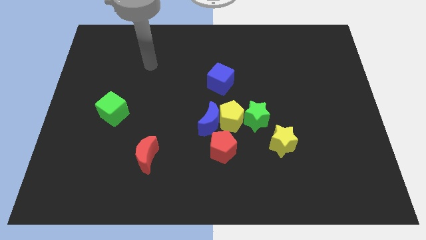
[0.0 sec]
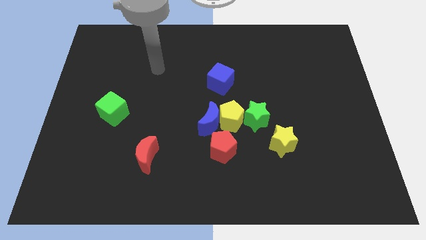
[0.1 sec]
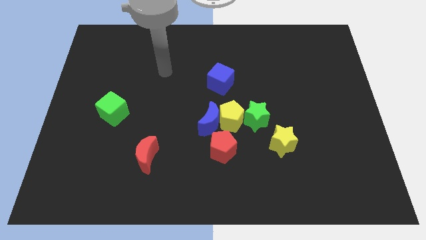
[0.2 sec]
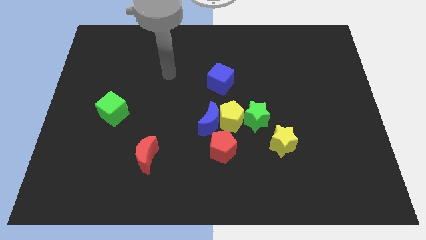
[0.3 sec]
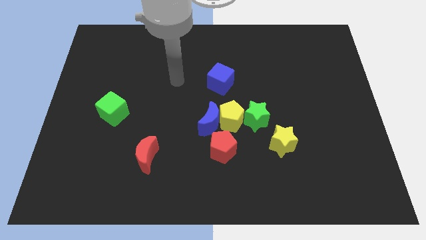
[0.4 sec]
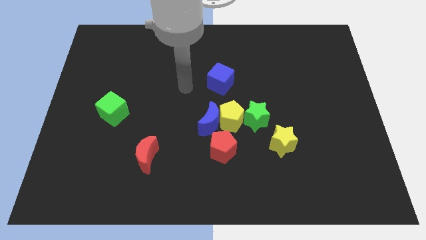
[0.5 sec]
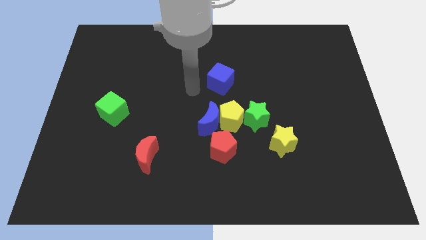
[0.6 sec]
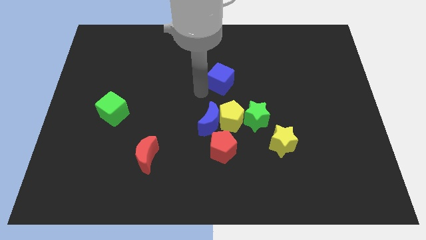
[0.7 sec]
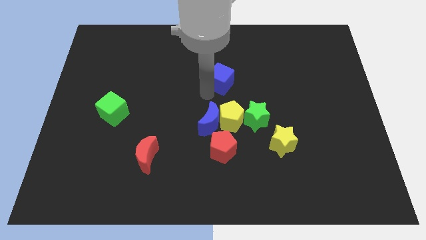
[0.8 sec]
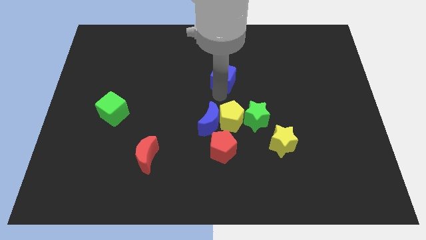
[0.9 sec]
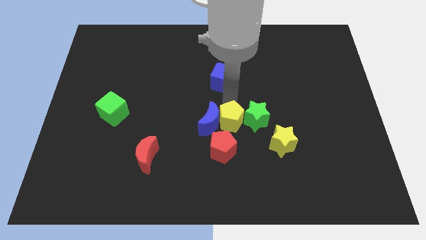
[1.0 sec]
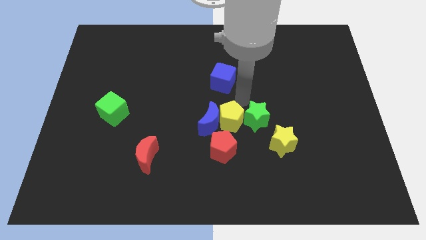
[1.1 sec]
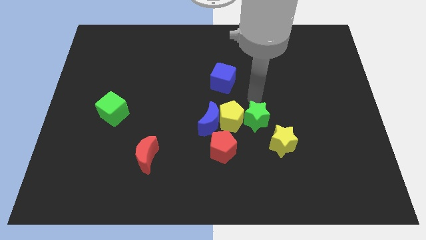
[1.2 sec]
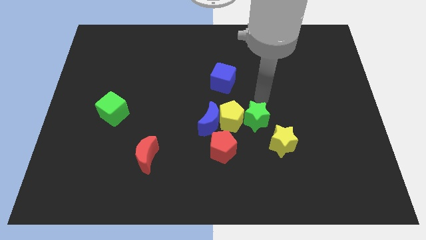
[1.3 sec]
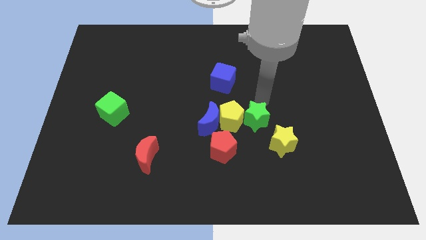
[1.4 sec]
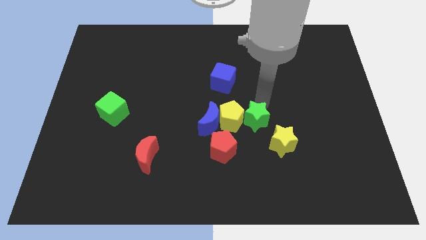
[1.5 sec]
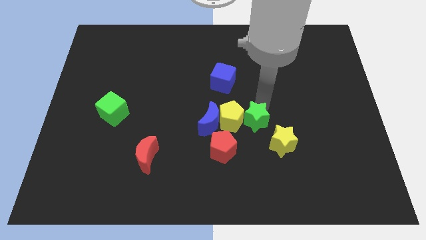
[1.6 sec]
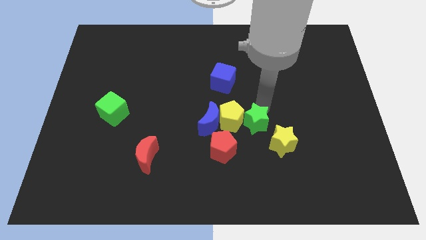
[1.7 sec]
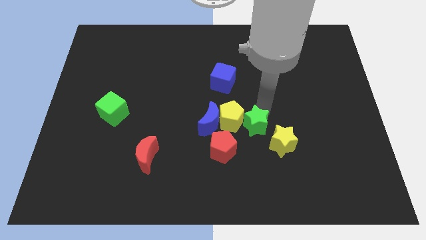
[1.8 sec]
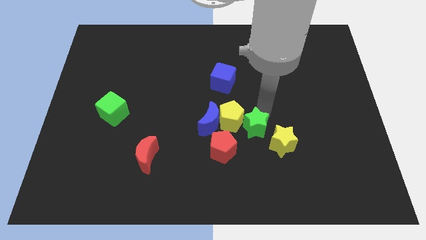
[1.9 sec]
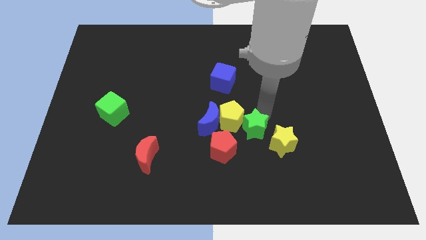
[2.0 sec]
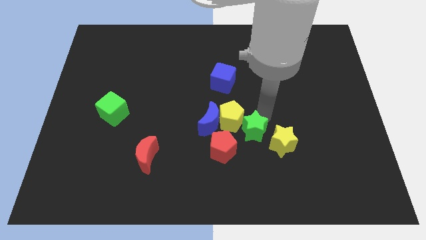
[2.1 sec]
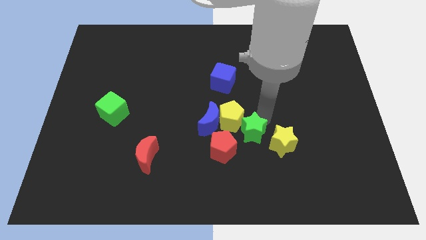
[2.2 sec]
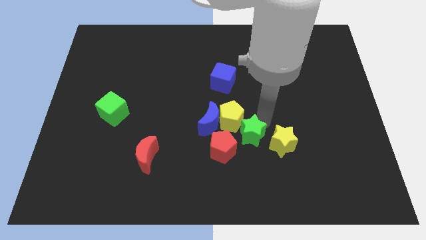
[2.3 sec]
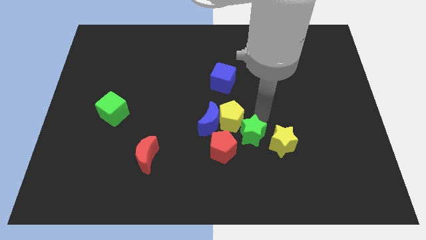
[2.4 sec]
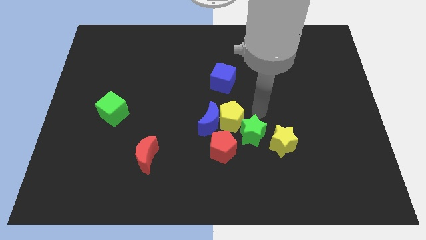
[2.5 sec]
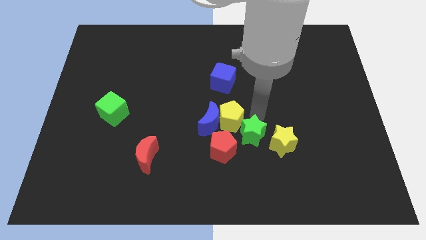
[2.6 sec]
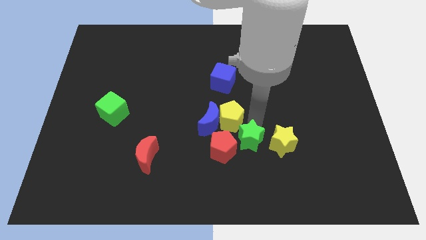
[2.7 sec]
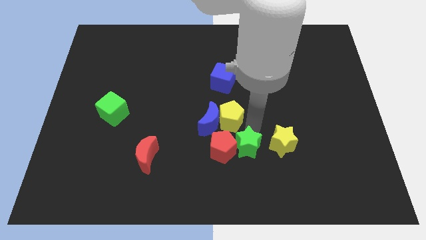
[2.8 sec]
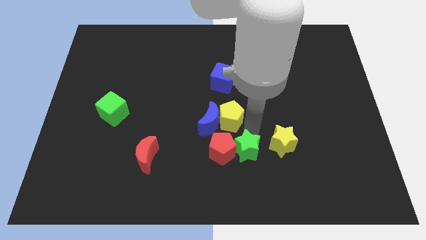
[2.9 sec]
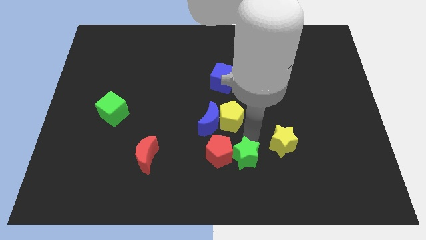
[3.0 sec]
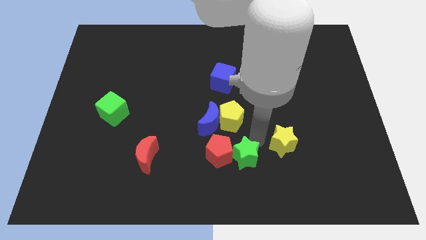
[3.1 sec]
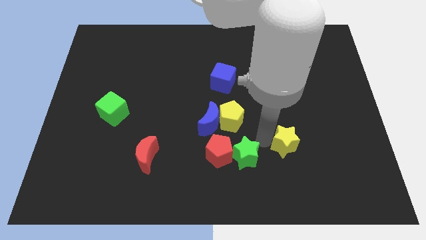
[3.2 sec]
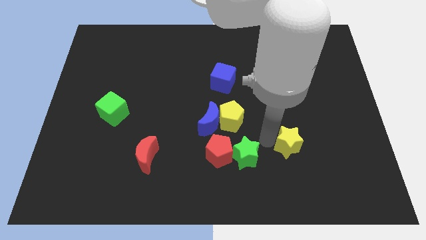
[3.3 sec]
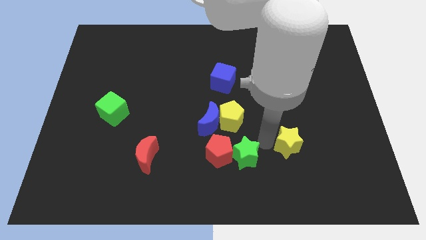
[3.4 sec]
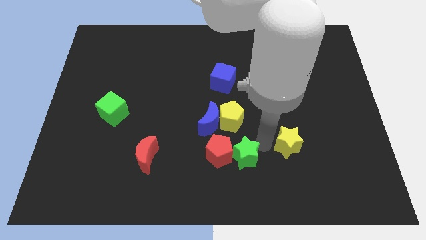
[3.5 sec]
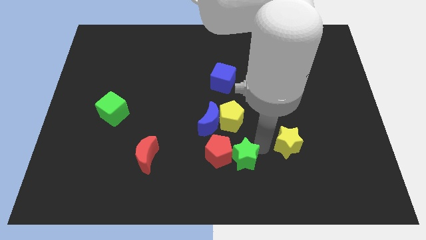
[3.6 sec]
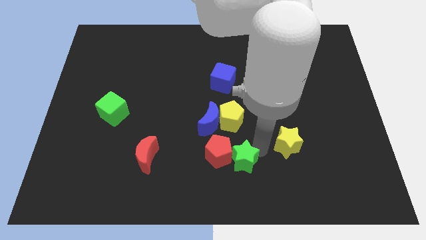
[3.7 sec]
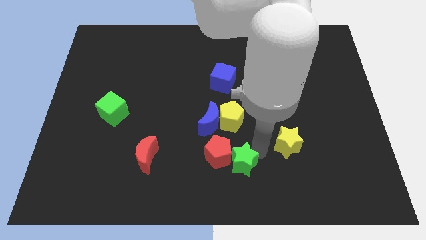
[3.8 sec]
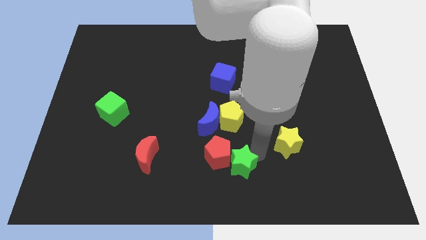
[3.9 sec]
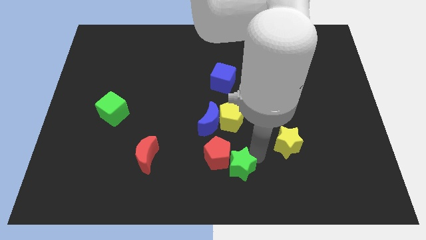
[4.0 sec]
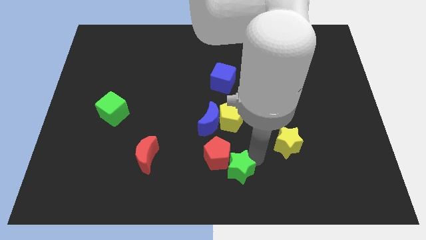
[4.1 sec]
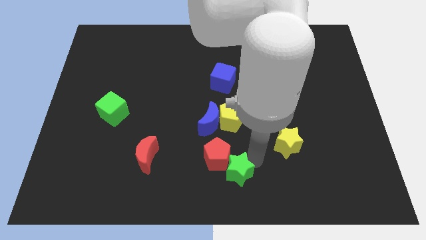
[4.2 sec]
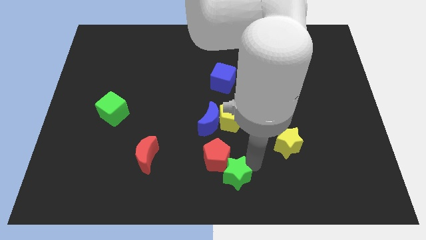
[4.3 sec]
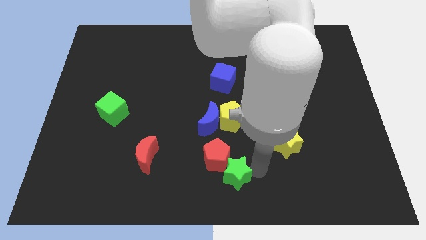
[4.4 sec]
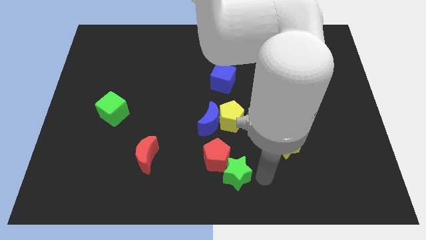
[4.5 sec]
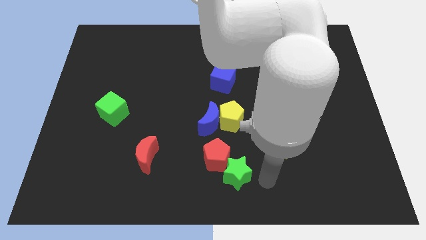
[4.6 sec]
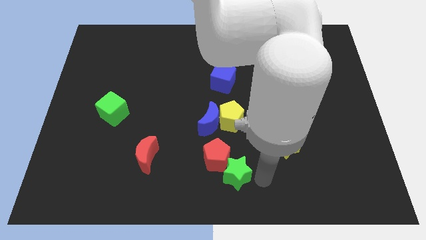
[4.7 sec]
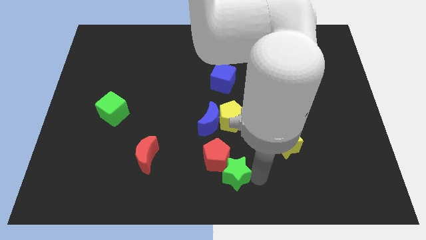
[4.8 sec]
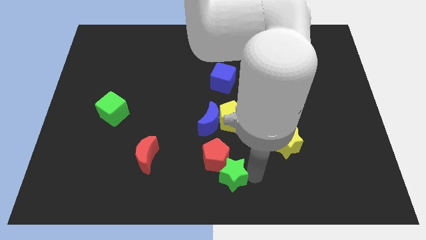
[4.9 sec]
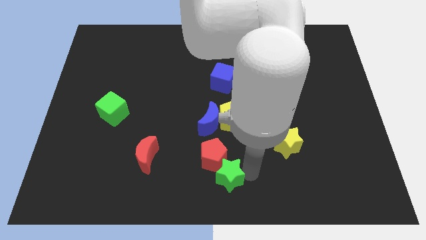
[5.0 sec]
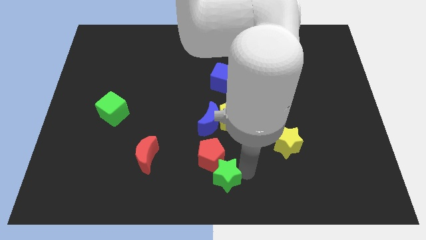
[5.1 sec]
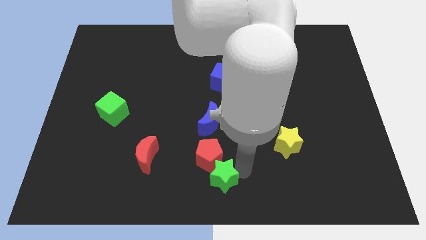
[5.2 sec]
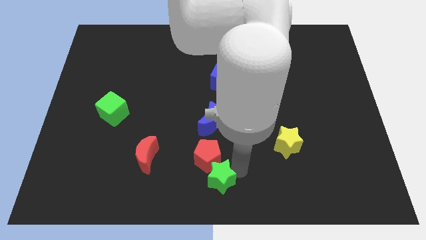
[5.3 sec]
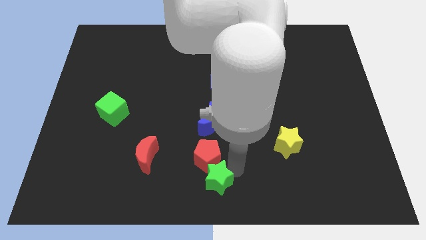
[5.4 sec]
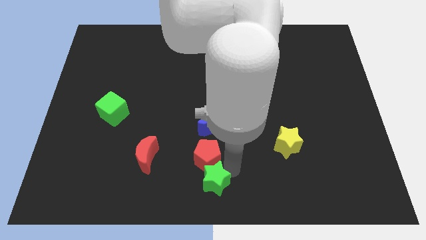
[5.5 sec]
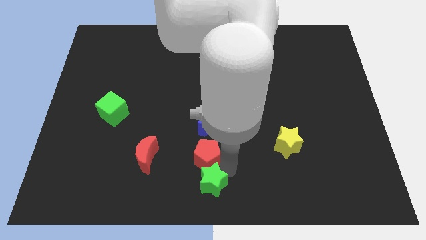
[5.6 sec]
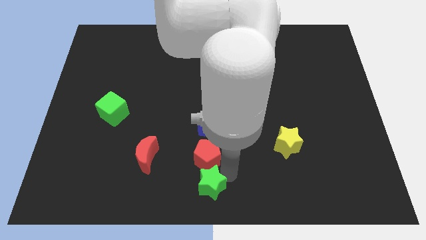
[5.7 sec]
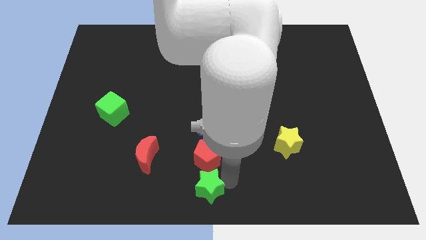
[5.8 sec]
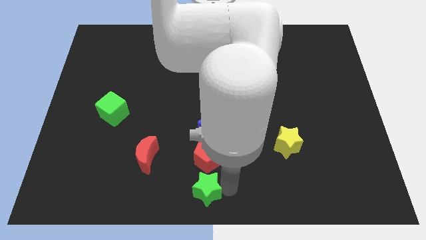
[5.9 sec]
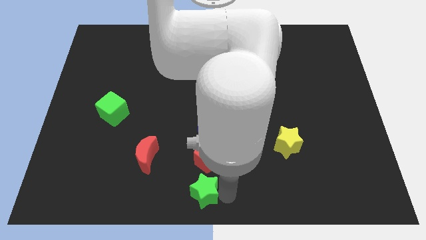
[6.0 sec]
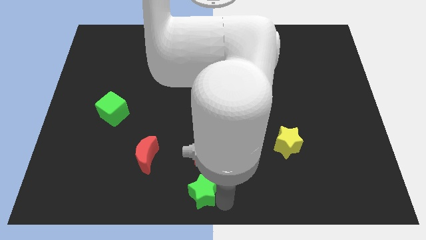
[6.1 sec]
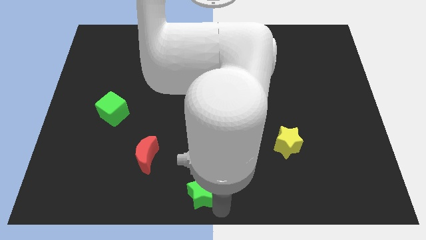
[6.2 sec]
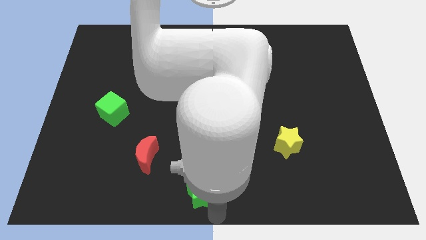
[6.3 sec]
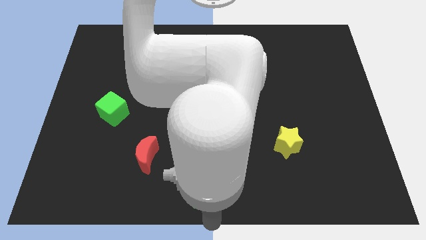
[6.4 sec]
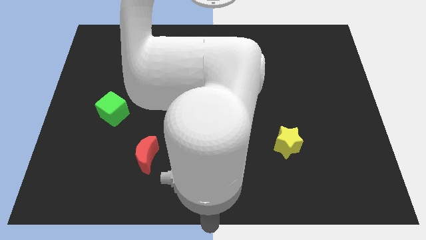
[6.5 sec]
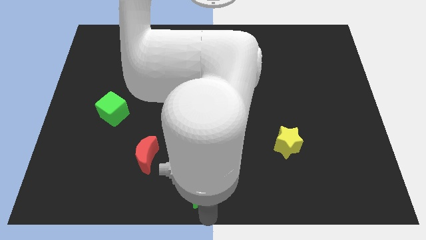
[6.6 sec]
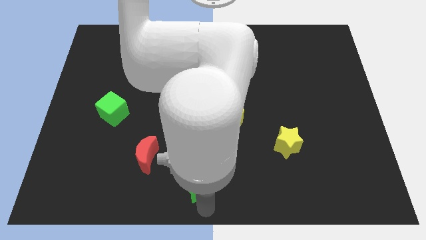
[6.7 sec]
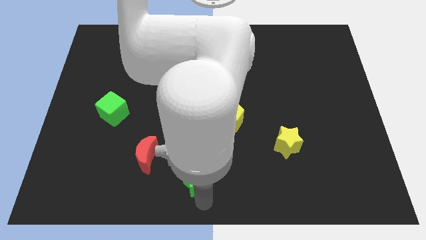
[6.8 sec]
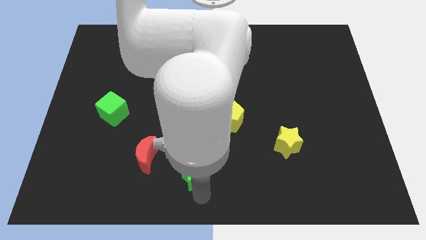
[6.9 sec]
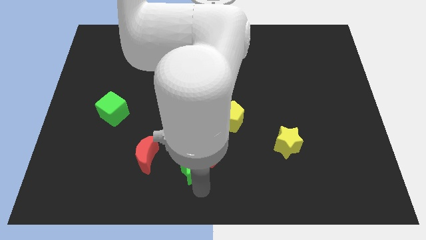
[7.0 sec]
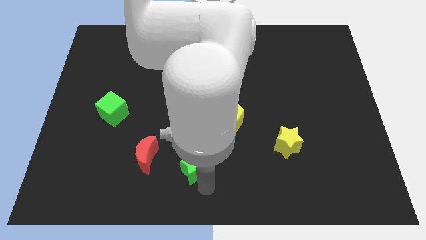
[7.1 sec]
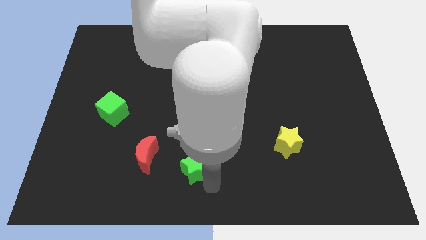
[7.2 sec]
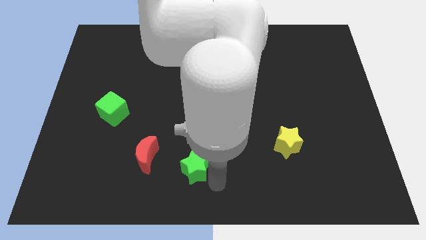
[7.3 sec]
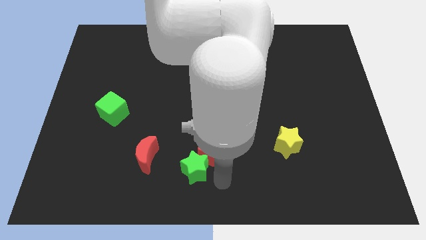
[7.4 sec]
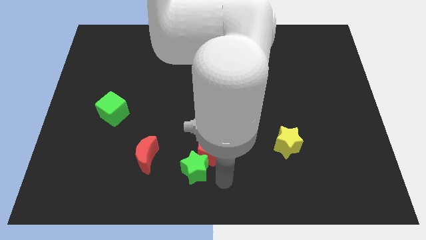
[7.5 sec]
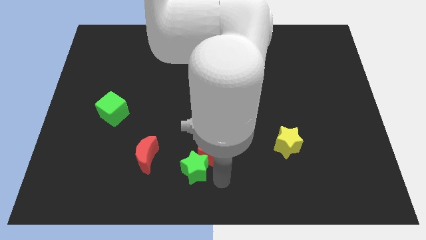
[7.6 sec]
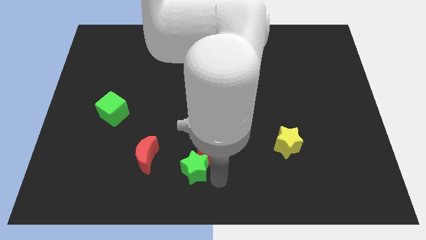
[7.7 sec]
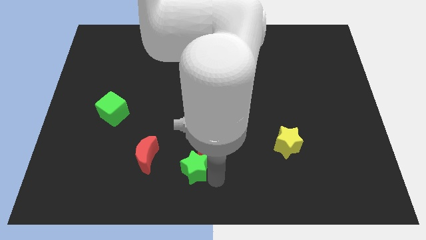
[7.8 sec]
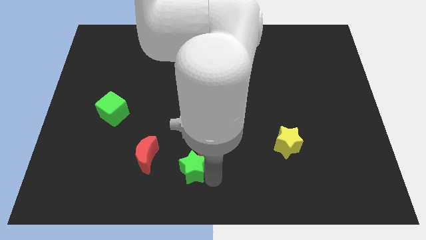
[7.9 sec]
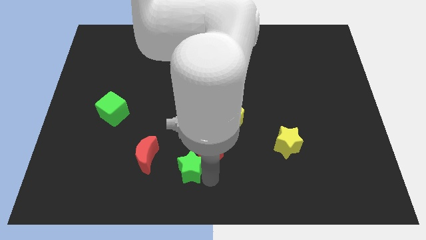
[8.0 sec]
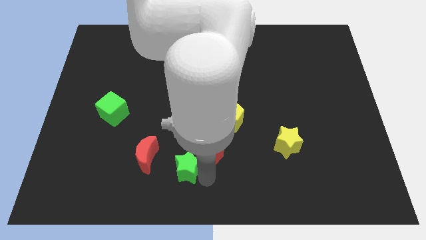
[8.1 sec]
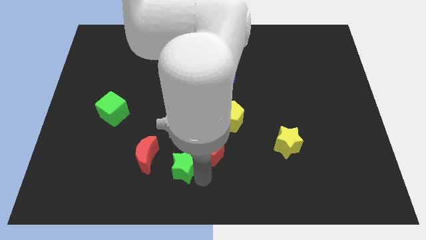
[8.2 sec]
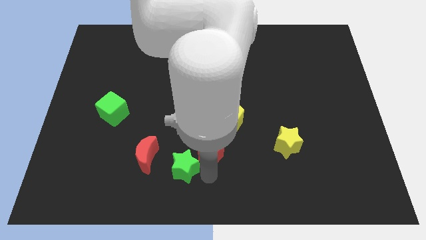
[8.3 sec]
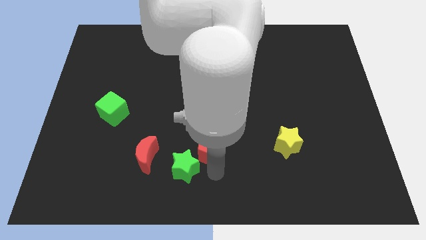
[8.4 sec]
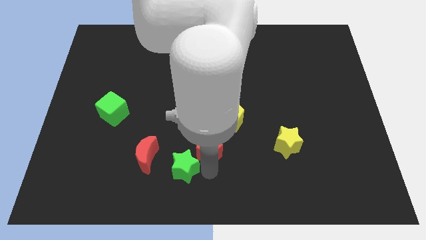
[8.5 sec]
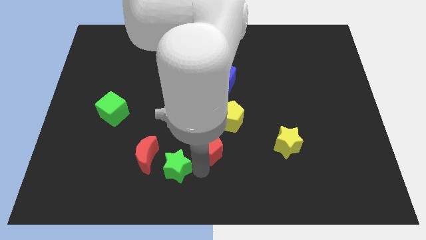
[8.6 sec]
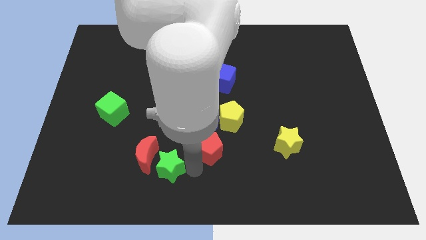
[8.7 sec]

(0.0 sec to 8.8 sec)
move the green star to the red moon
